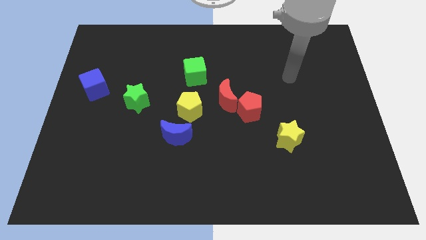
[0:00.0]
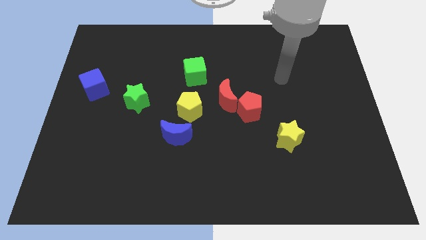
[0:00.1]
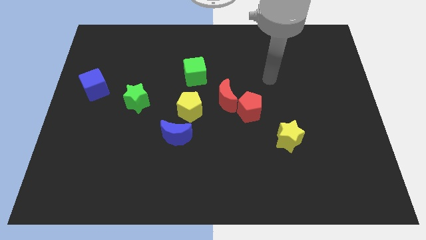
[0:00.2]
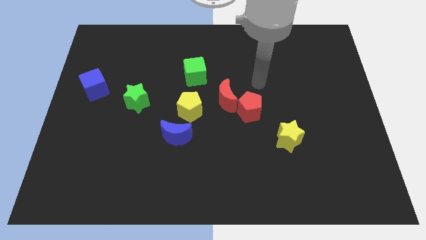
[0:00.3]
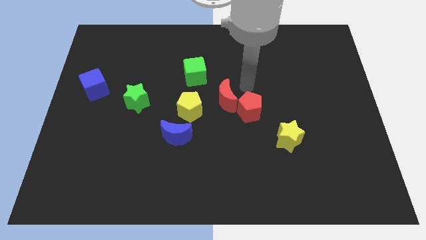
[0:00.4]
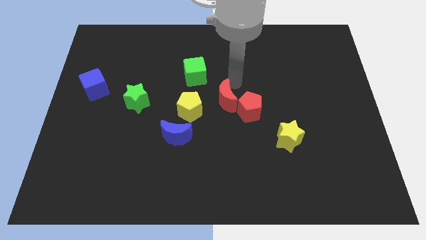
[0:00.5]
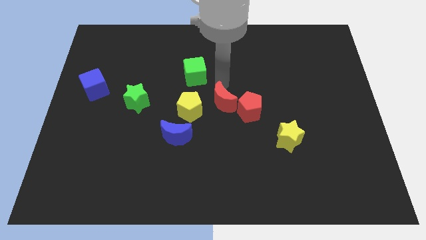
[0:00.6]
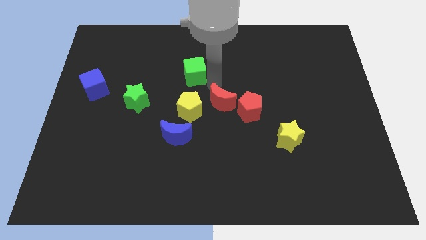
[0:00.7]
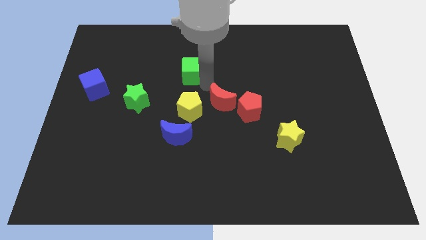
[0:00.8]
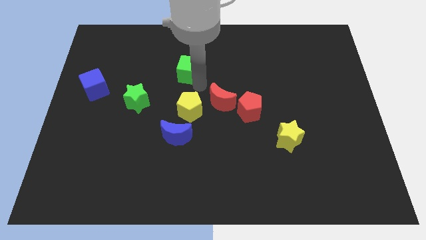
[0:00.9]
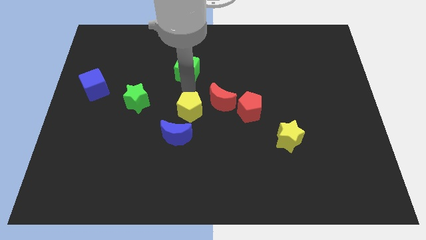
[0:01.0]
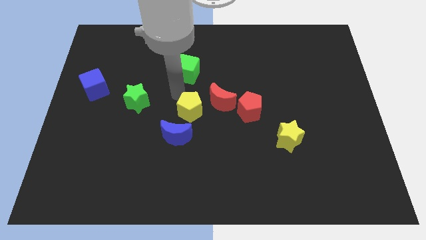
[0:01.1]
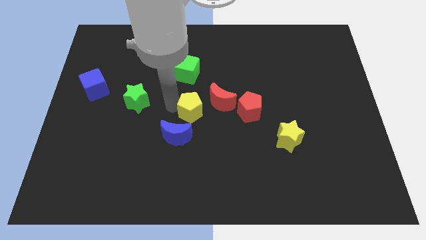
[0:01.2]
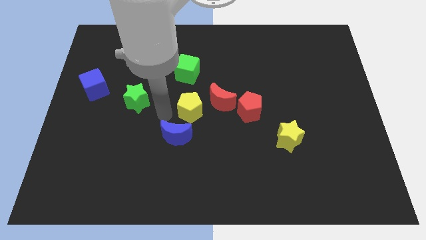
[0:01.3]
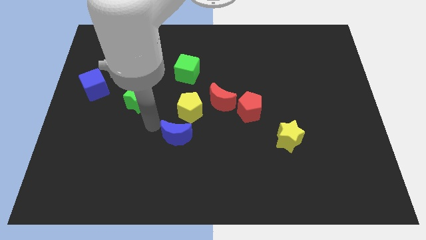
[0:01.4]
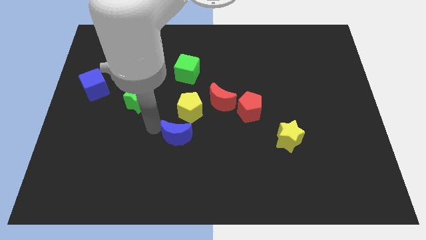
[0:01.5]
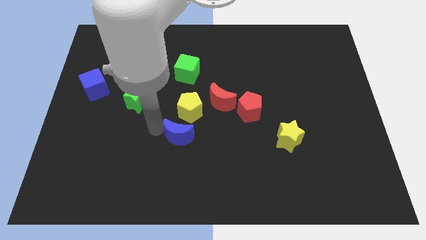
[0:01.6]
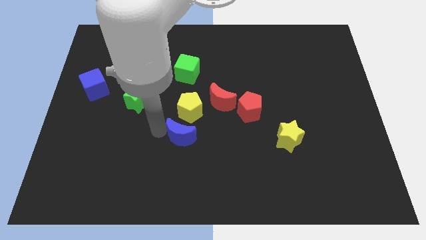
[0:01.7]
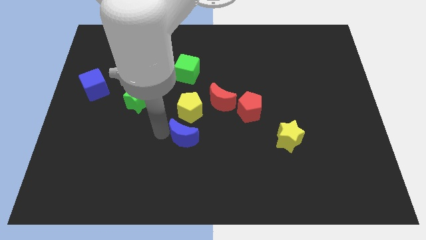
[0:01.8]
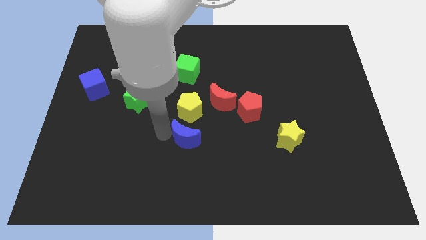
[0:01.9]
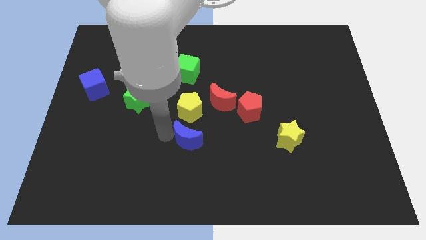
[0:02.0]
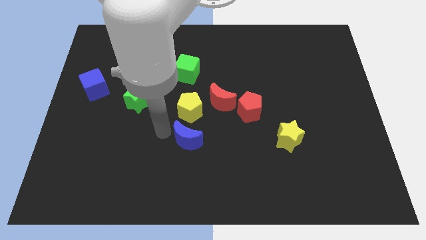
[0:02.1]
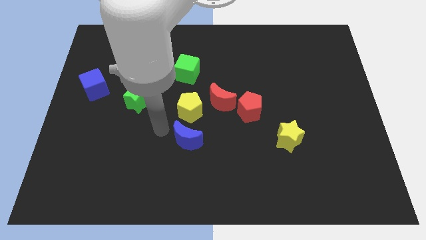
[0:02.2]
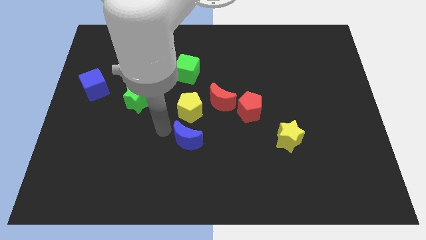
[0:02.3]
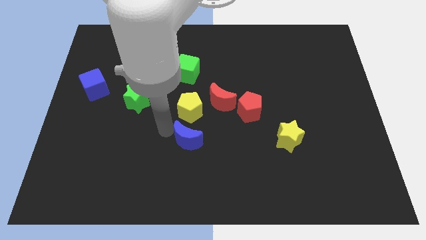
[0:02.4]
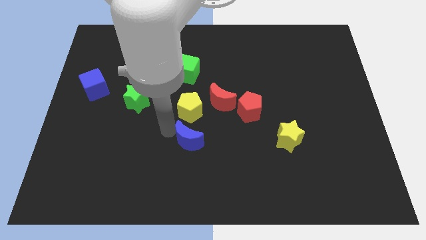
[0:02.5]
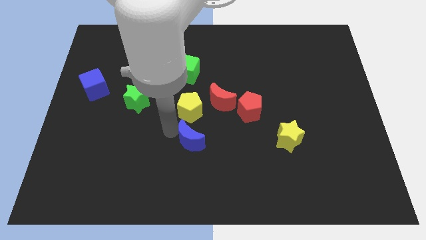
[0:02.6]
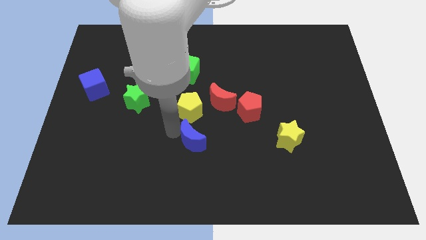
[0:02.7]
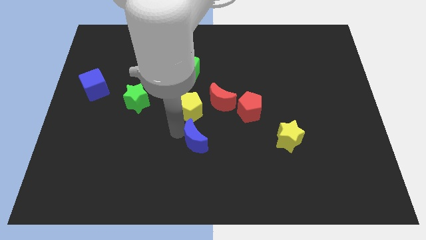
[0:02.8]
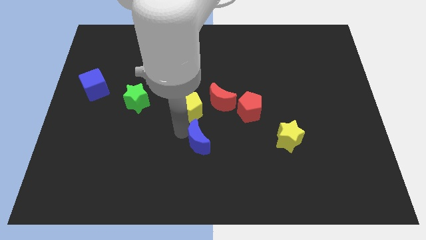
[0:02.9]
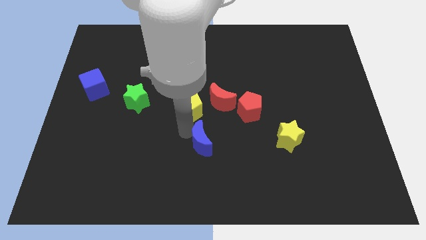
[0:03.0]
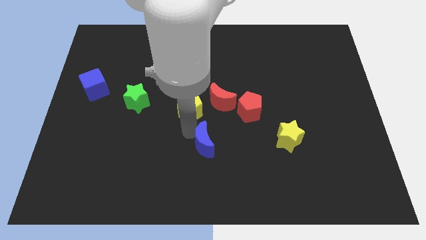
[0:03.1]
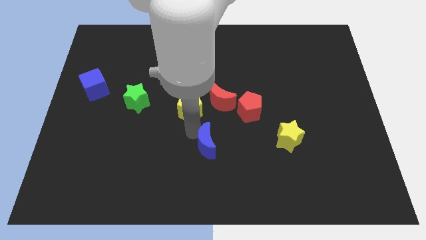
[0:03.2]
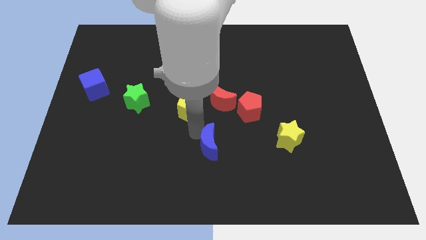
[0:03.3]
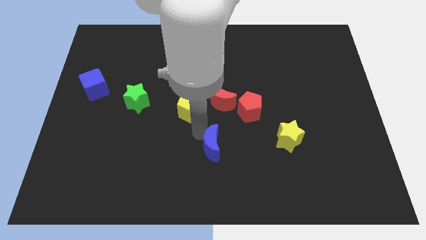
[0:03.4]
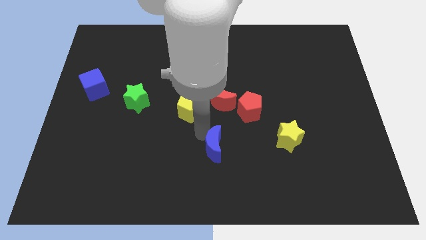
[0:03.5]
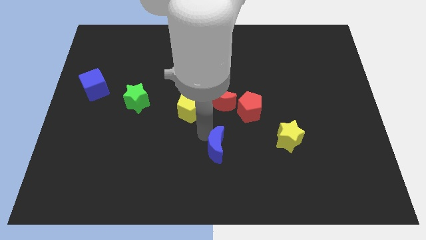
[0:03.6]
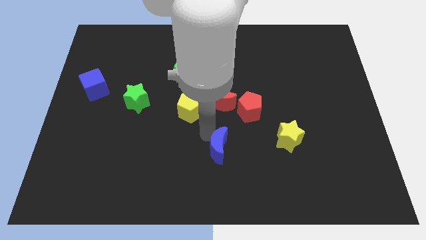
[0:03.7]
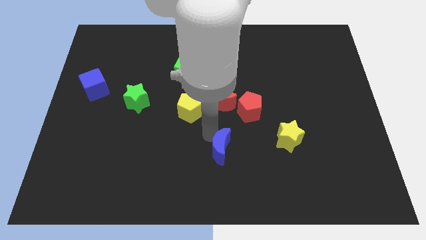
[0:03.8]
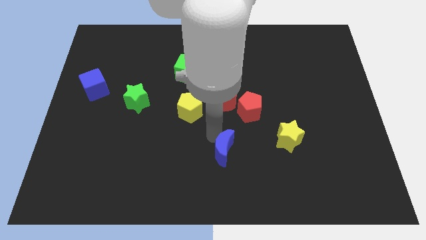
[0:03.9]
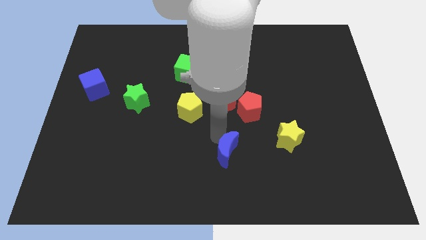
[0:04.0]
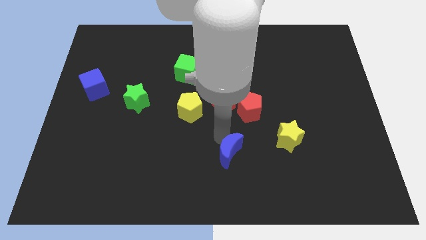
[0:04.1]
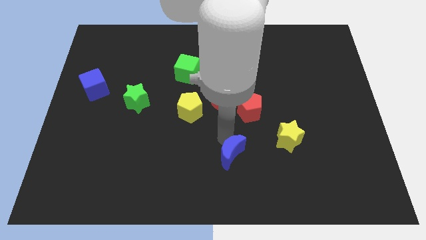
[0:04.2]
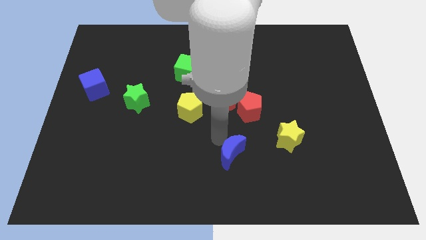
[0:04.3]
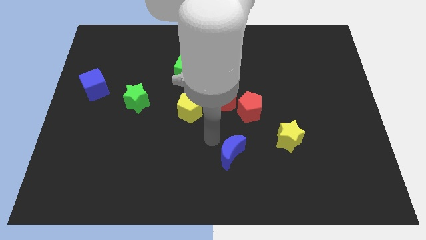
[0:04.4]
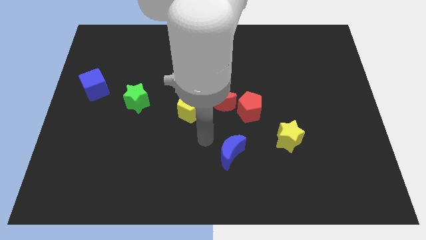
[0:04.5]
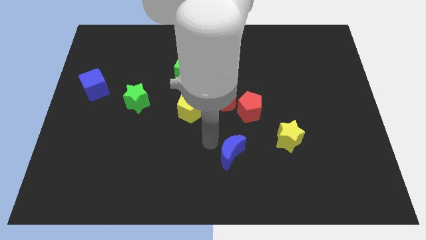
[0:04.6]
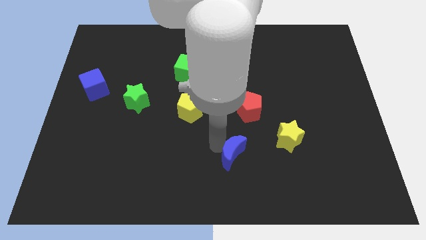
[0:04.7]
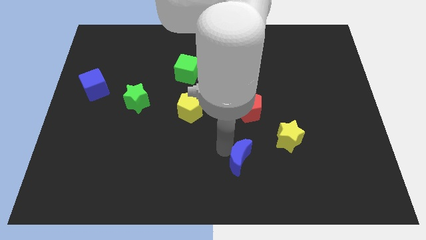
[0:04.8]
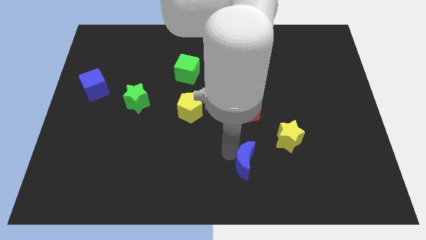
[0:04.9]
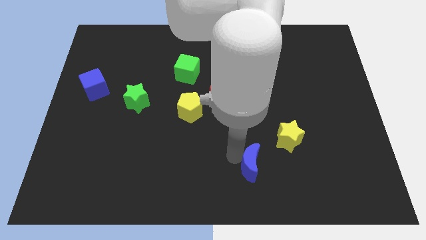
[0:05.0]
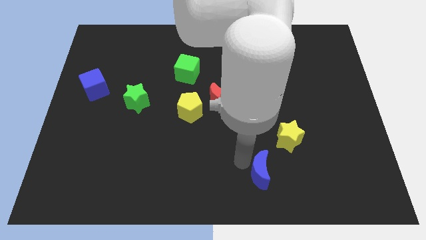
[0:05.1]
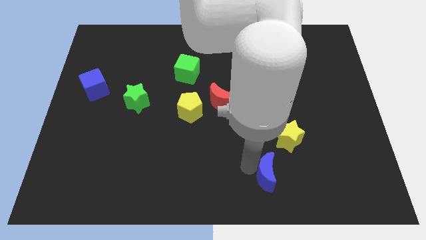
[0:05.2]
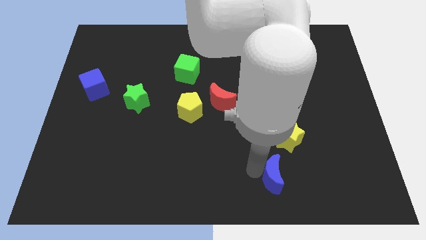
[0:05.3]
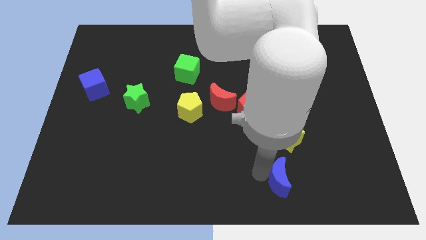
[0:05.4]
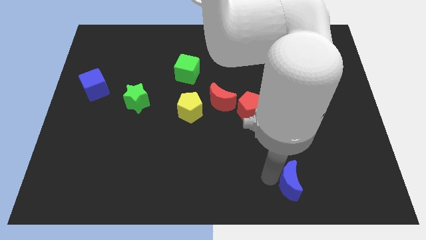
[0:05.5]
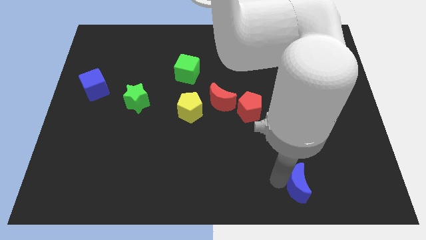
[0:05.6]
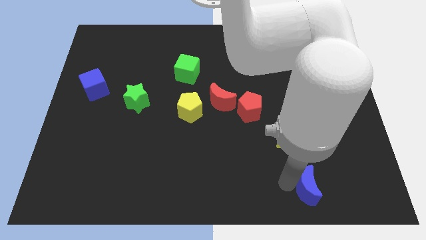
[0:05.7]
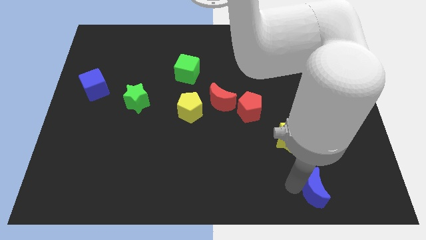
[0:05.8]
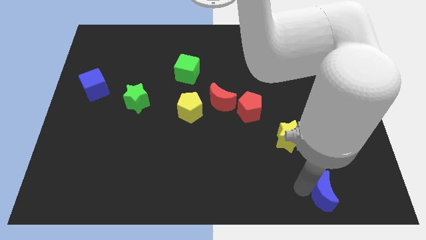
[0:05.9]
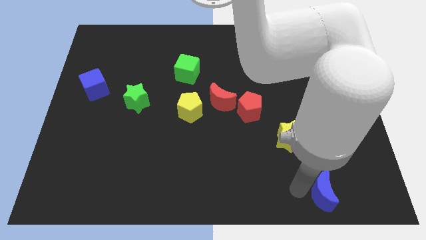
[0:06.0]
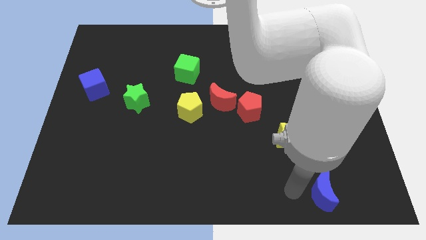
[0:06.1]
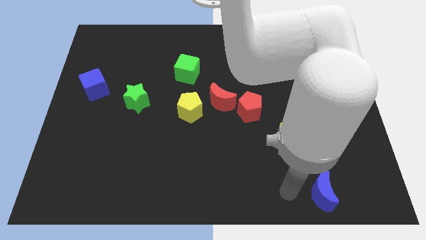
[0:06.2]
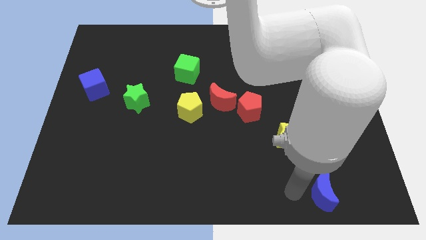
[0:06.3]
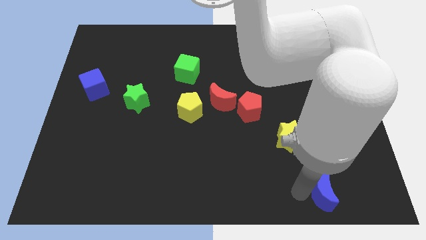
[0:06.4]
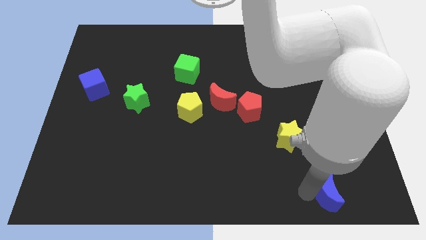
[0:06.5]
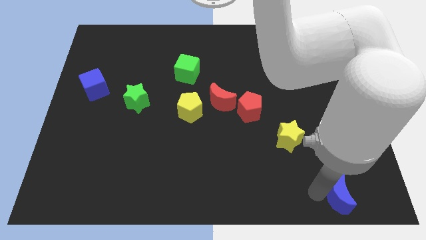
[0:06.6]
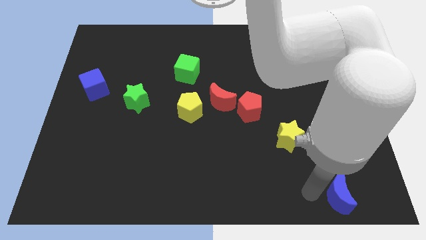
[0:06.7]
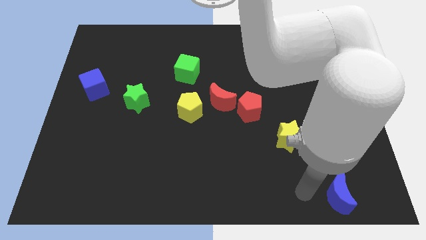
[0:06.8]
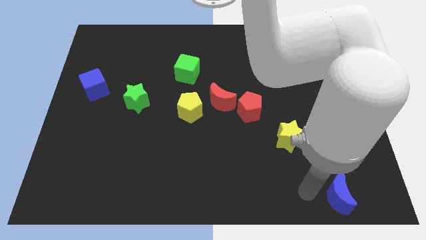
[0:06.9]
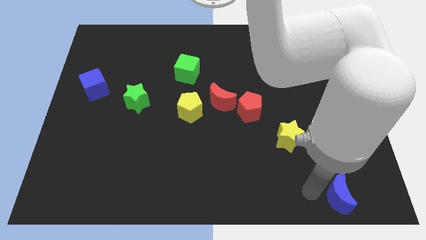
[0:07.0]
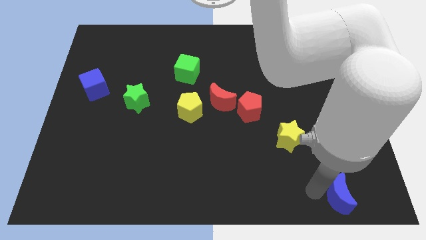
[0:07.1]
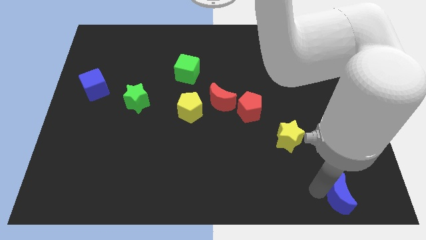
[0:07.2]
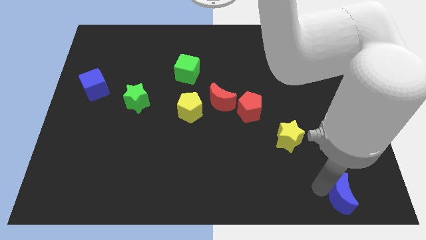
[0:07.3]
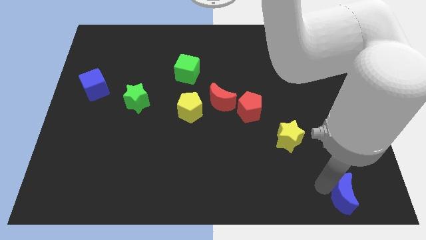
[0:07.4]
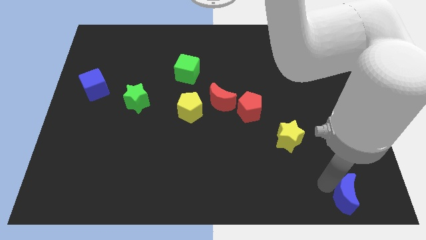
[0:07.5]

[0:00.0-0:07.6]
put the blue moon to the bottom right of the board
